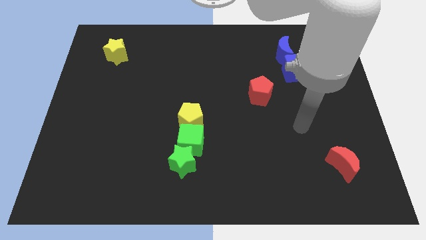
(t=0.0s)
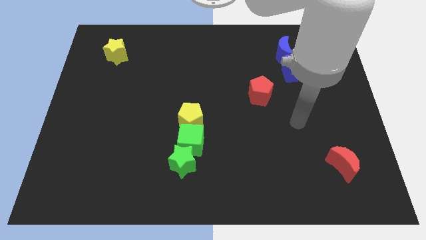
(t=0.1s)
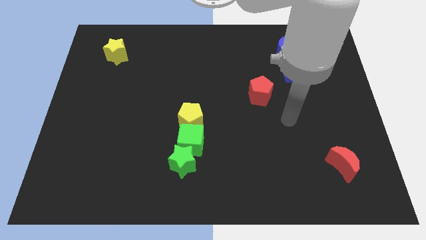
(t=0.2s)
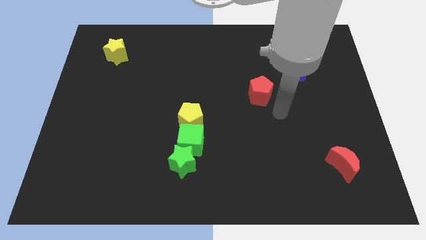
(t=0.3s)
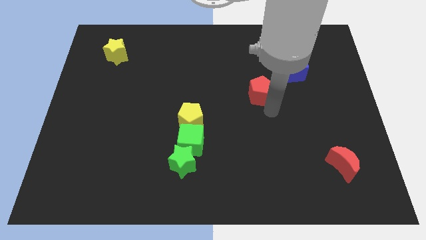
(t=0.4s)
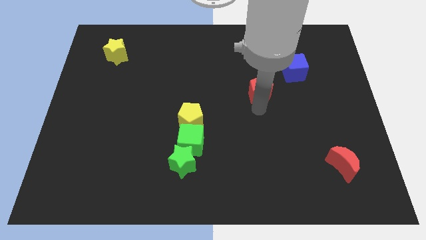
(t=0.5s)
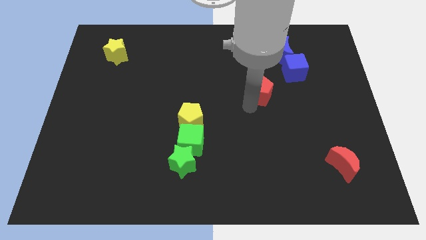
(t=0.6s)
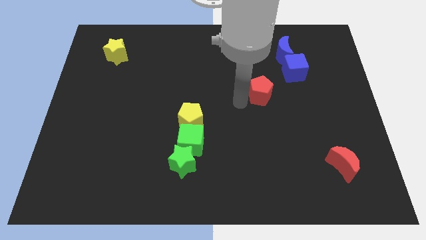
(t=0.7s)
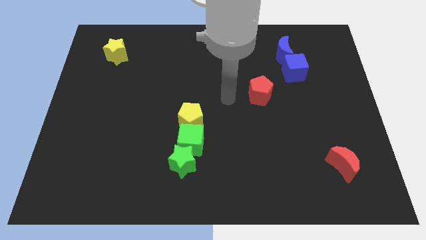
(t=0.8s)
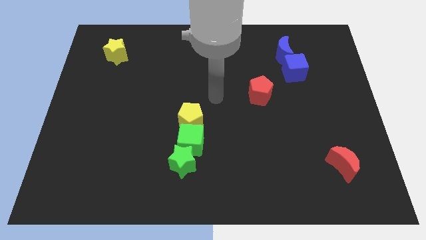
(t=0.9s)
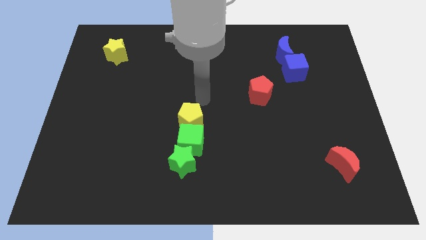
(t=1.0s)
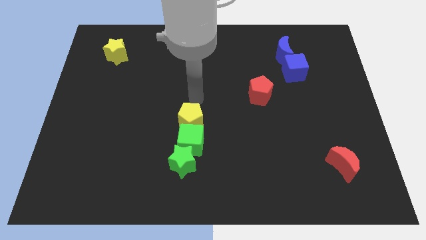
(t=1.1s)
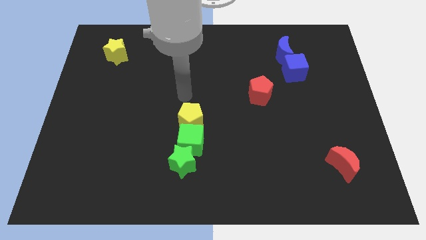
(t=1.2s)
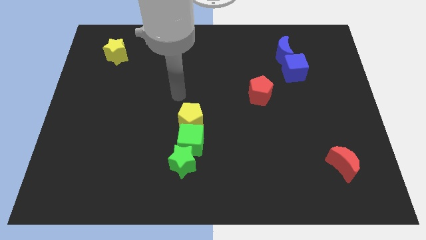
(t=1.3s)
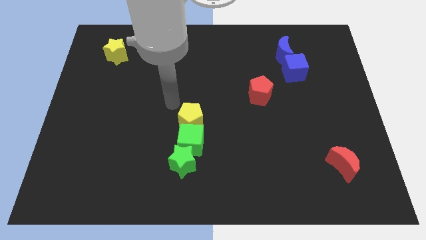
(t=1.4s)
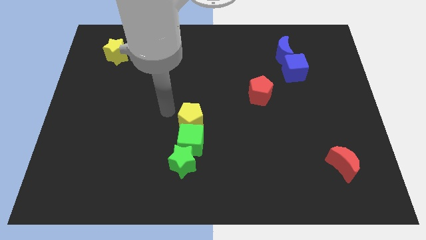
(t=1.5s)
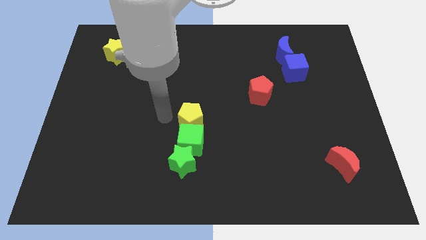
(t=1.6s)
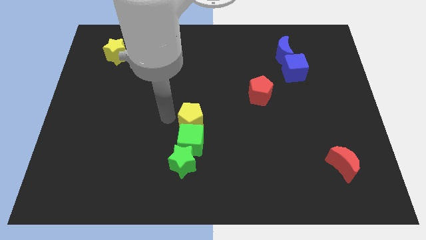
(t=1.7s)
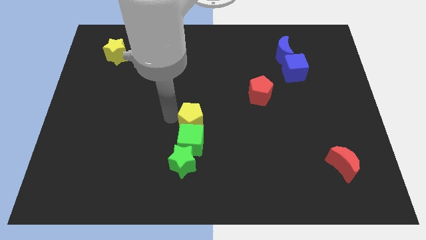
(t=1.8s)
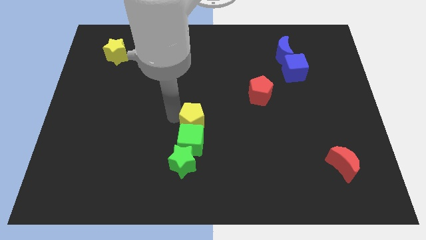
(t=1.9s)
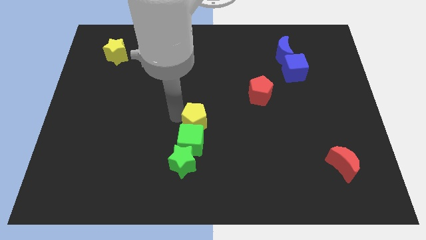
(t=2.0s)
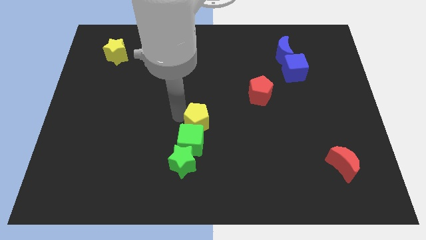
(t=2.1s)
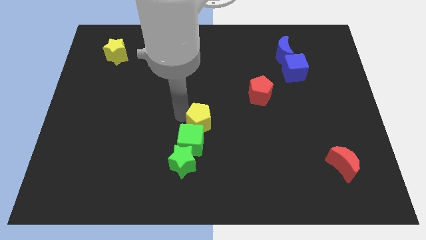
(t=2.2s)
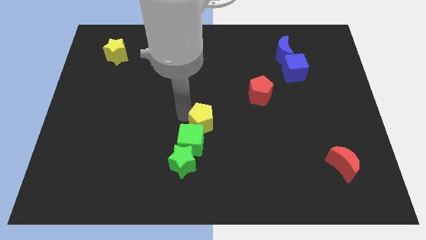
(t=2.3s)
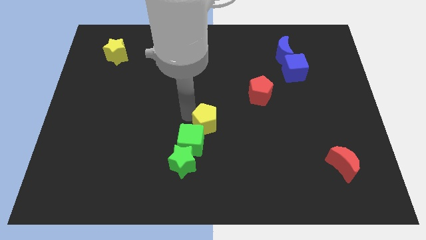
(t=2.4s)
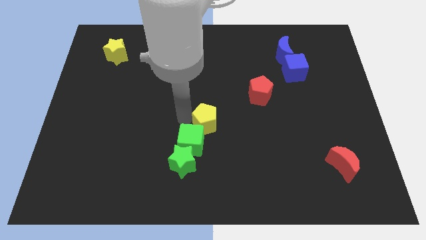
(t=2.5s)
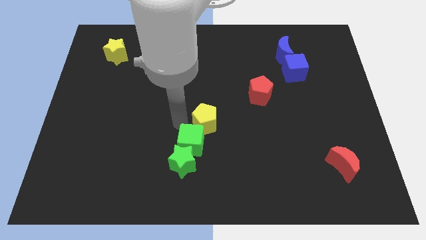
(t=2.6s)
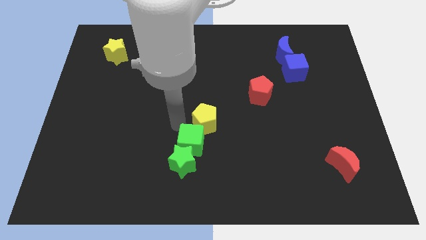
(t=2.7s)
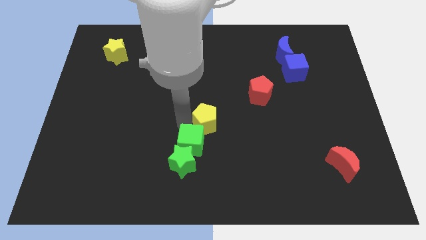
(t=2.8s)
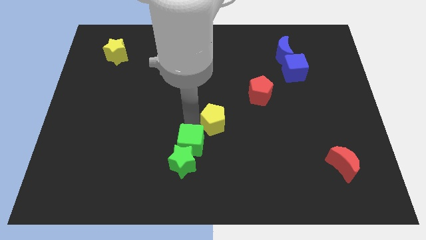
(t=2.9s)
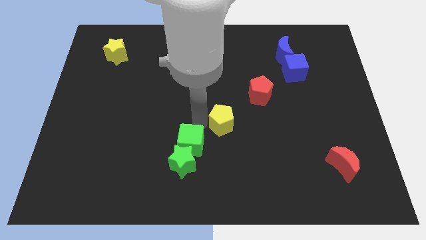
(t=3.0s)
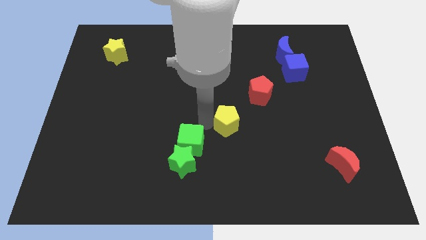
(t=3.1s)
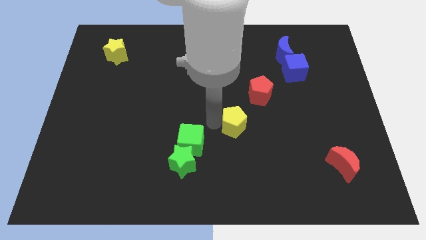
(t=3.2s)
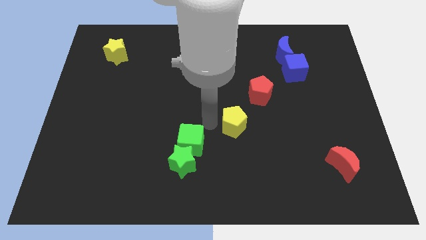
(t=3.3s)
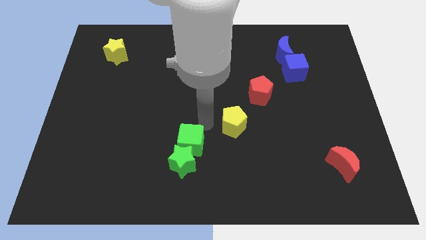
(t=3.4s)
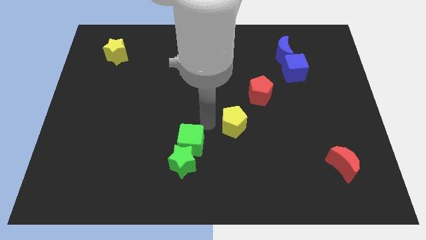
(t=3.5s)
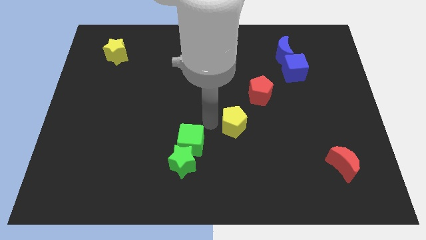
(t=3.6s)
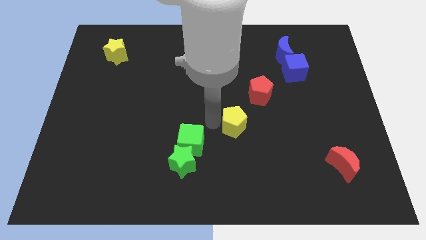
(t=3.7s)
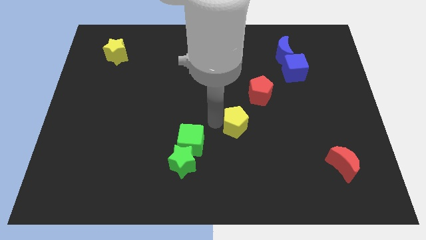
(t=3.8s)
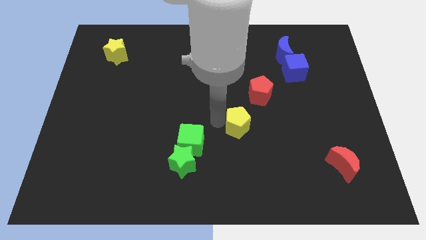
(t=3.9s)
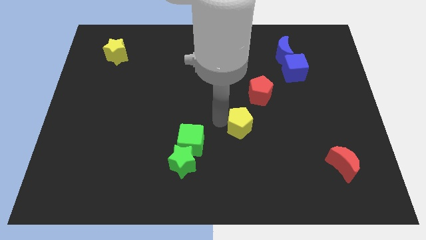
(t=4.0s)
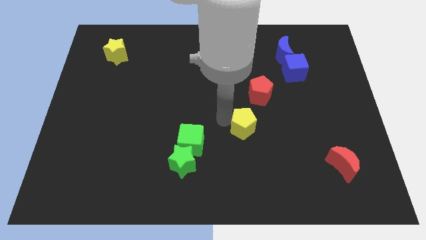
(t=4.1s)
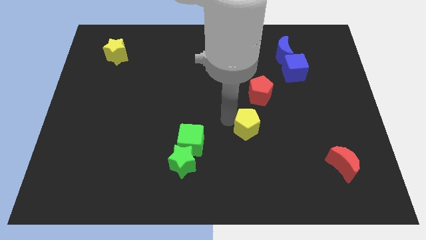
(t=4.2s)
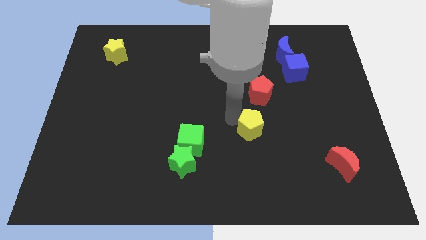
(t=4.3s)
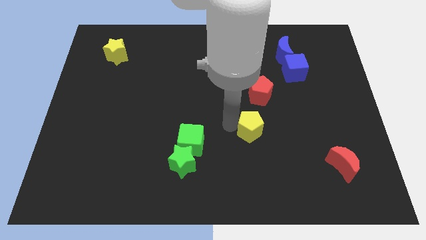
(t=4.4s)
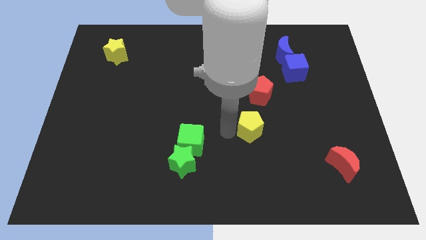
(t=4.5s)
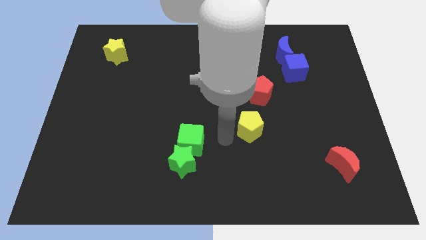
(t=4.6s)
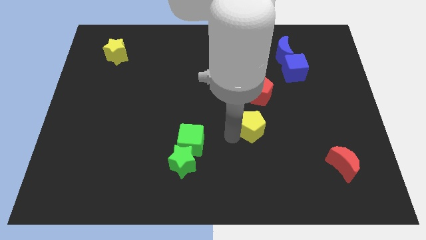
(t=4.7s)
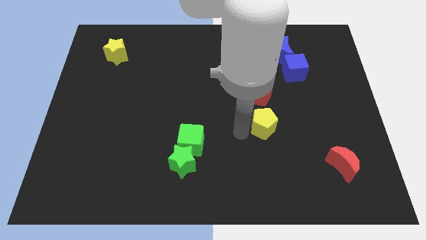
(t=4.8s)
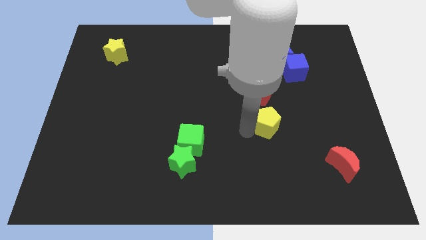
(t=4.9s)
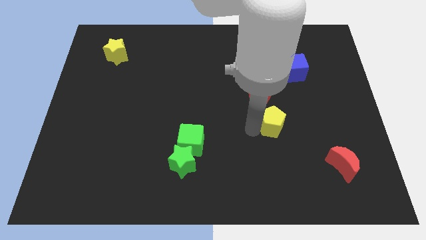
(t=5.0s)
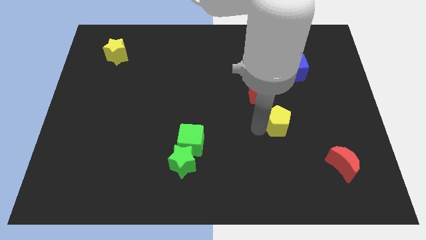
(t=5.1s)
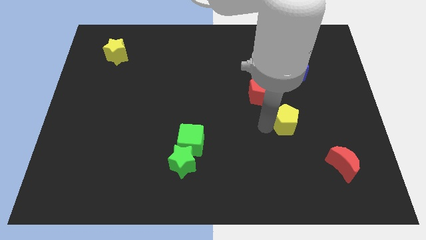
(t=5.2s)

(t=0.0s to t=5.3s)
move the yellow pentagon to the right

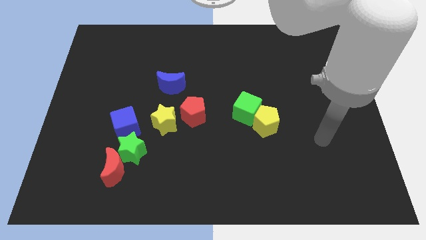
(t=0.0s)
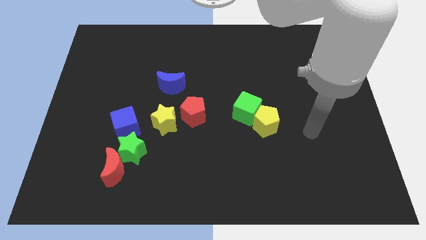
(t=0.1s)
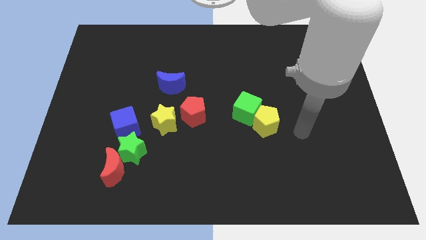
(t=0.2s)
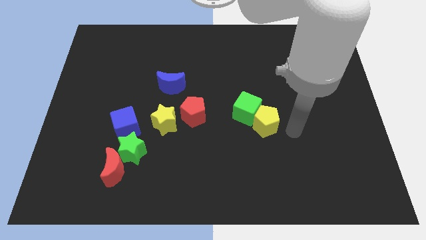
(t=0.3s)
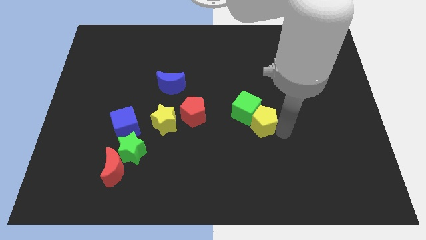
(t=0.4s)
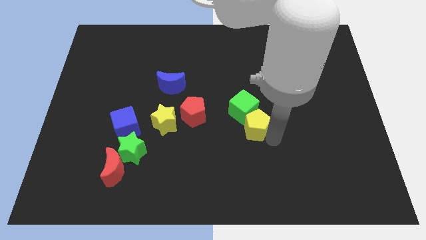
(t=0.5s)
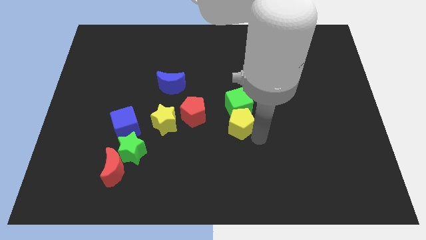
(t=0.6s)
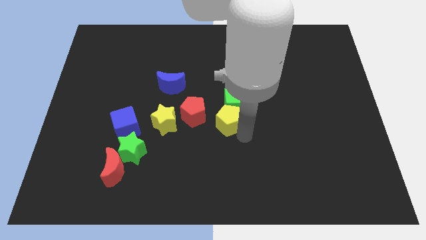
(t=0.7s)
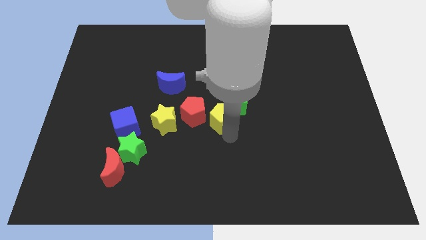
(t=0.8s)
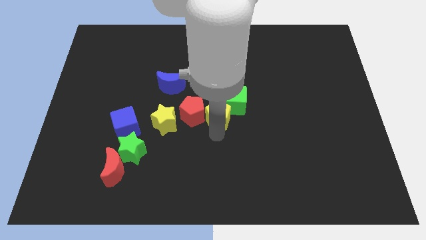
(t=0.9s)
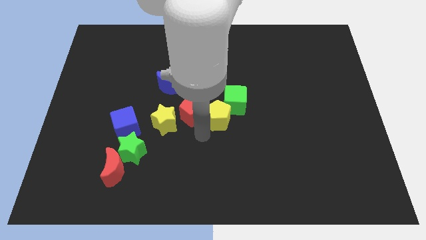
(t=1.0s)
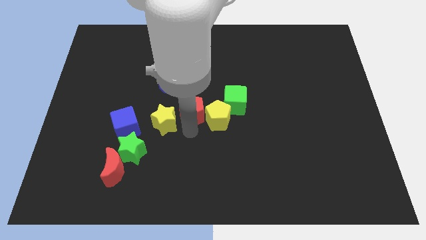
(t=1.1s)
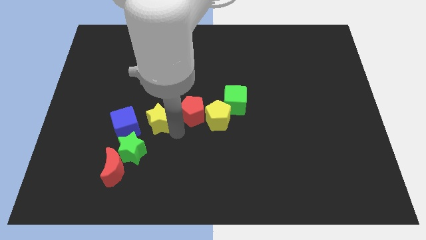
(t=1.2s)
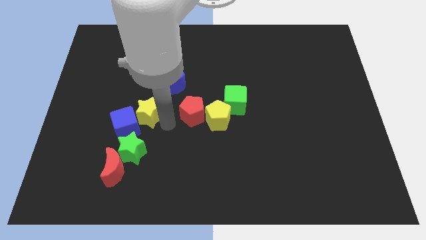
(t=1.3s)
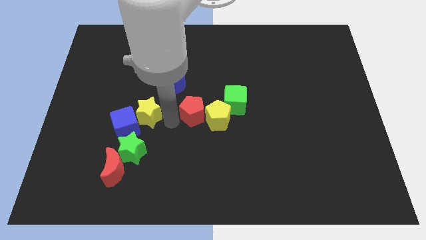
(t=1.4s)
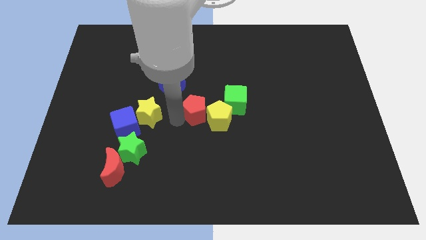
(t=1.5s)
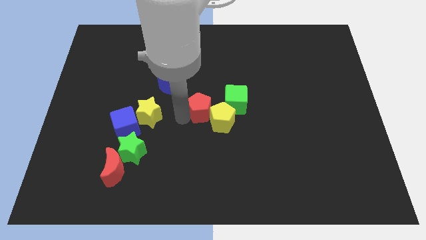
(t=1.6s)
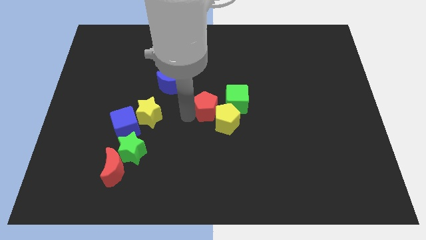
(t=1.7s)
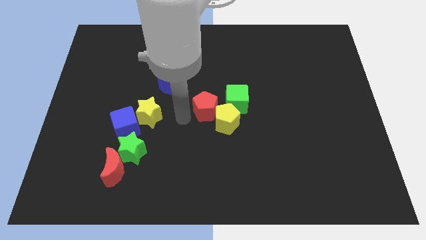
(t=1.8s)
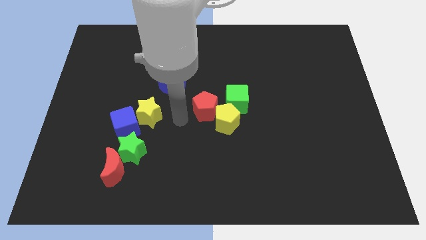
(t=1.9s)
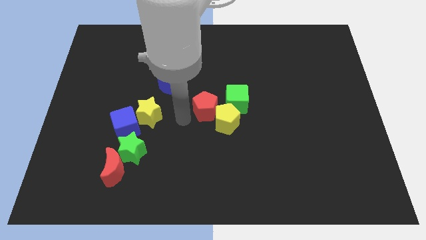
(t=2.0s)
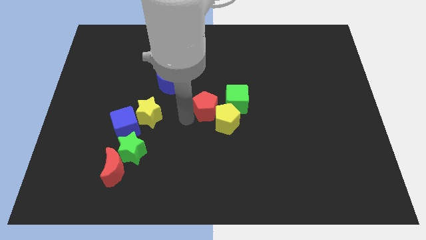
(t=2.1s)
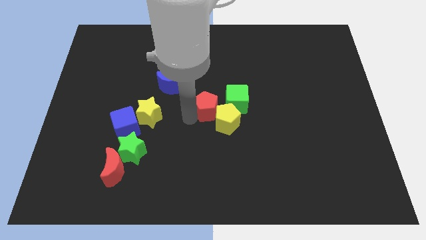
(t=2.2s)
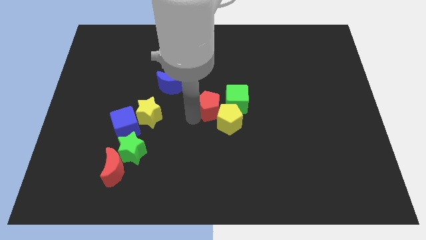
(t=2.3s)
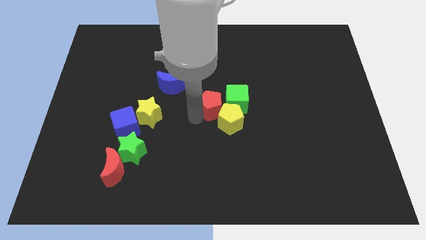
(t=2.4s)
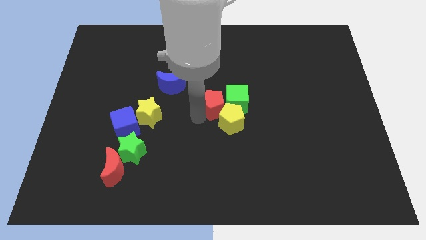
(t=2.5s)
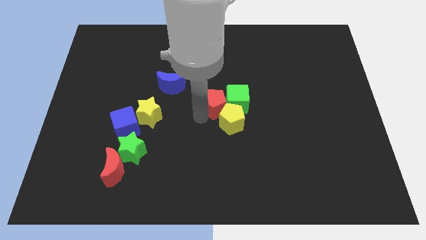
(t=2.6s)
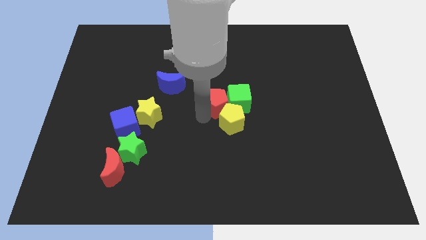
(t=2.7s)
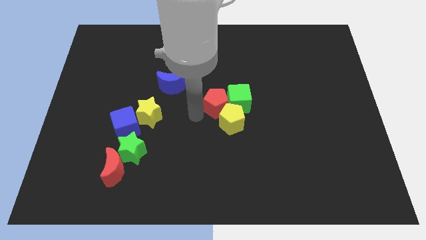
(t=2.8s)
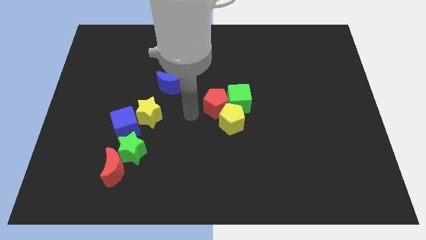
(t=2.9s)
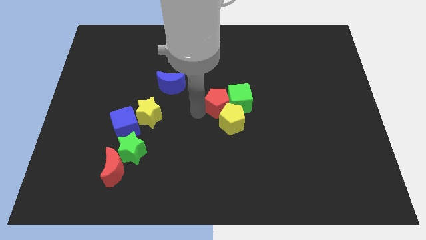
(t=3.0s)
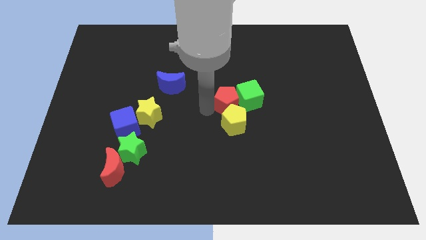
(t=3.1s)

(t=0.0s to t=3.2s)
move the red pentagon right somewhat
